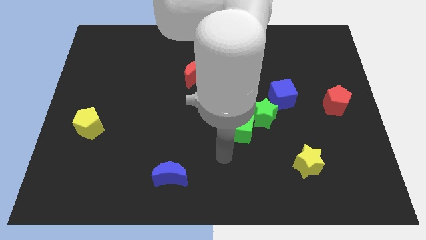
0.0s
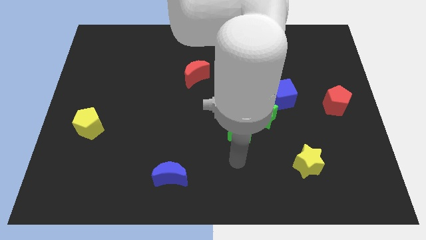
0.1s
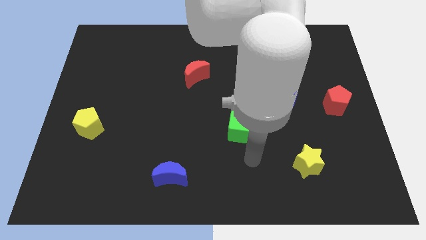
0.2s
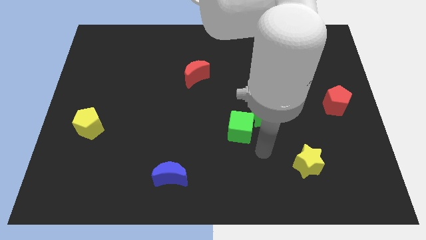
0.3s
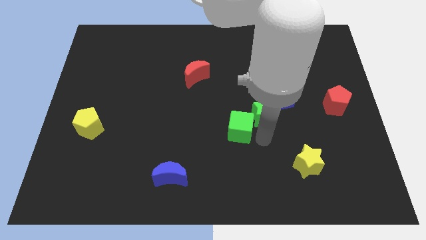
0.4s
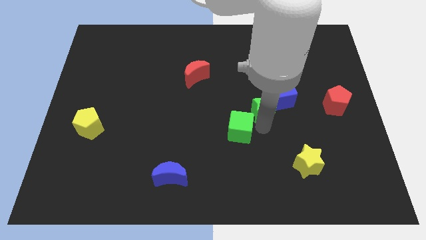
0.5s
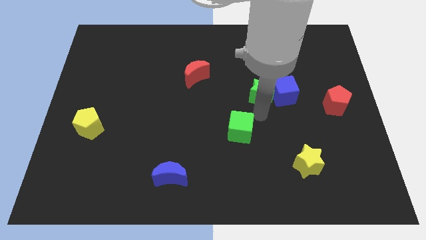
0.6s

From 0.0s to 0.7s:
pull the green cube apart from the green star

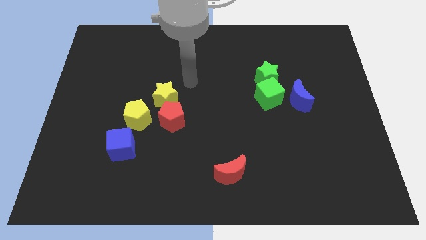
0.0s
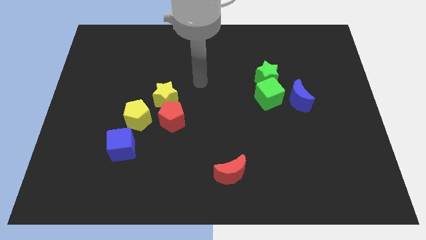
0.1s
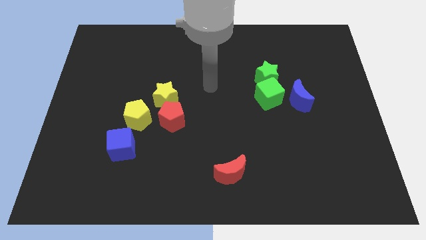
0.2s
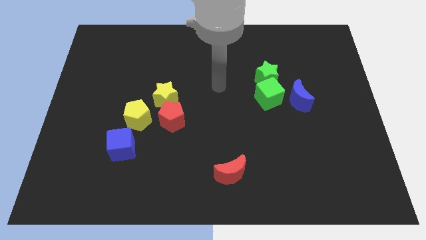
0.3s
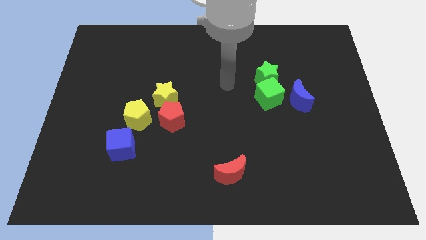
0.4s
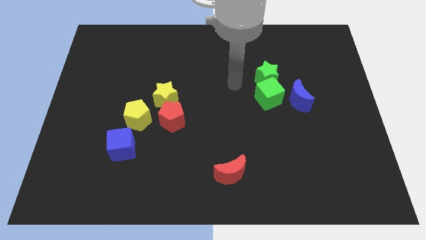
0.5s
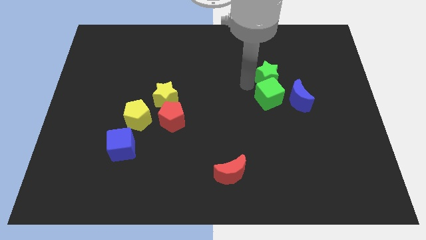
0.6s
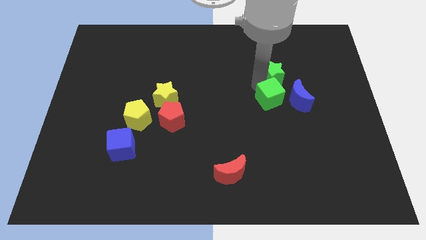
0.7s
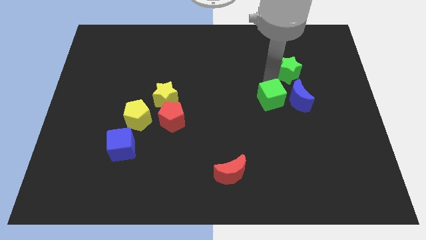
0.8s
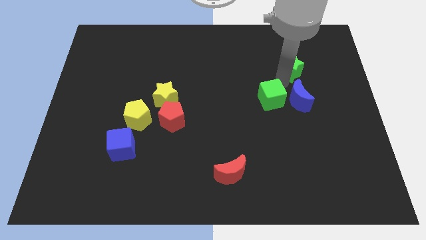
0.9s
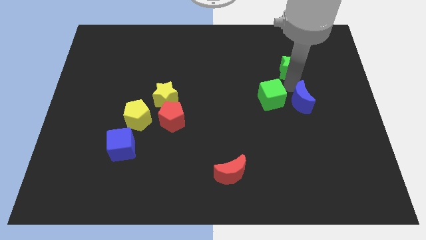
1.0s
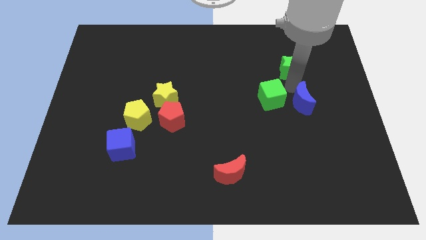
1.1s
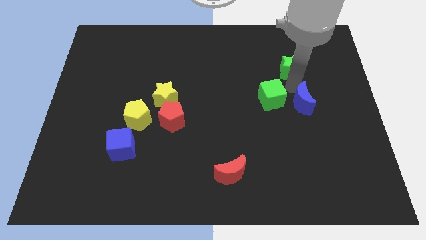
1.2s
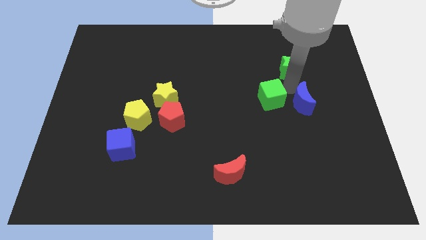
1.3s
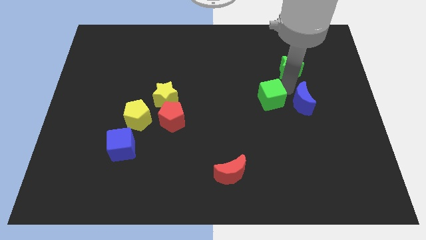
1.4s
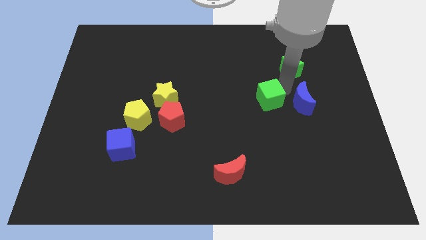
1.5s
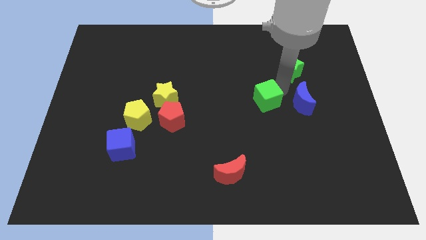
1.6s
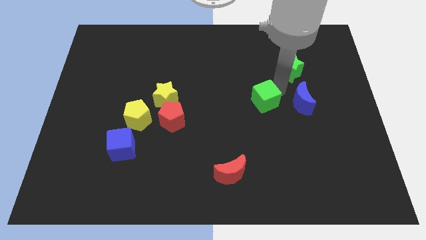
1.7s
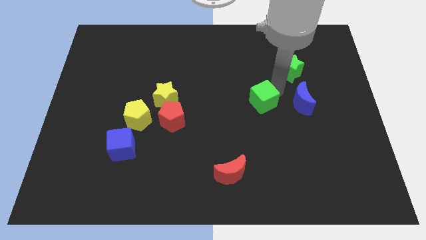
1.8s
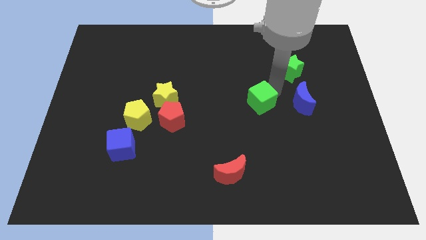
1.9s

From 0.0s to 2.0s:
pull the green cube apart from the green star and blue moon

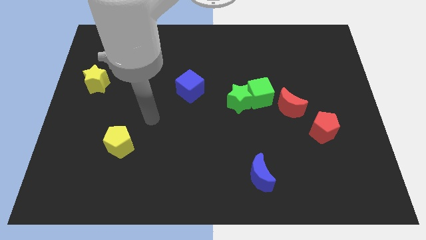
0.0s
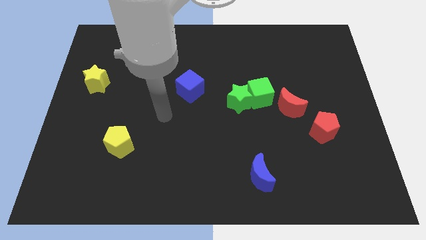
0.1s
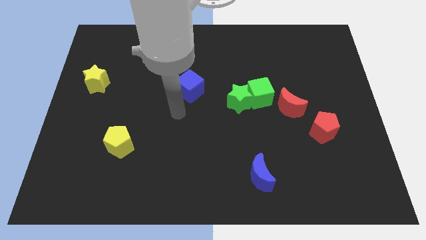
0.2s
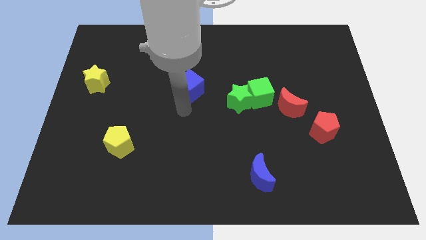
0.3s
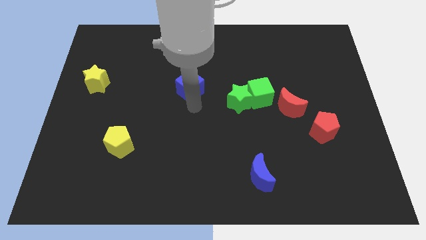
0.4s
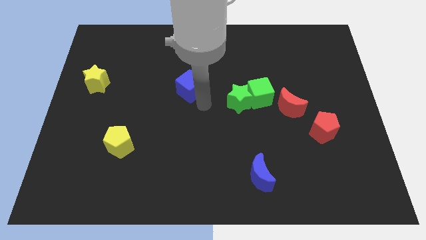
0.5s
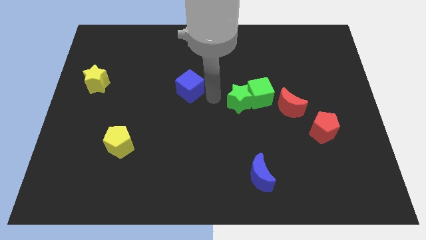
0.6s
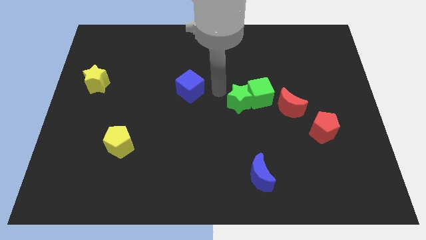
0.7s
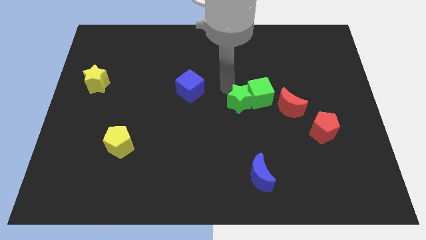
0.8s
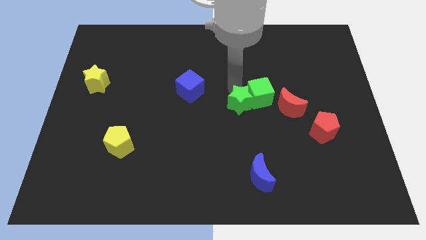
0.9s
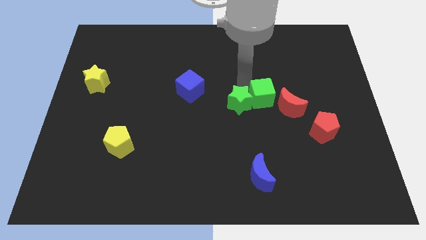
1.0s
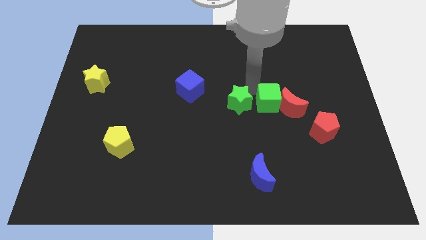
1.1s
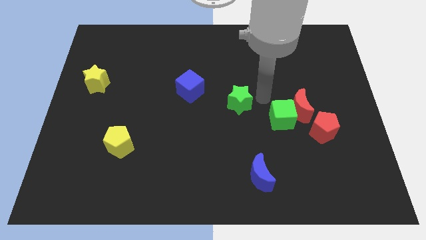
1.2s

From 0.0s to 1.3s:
pull the green star apart from the green cube

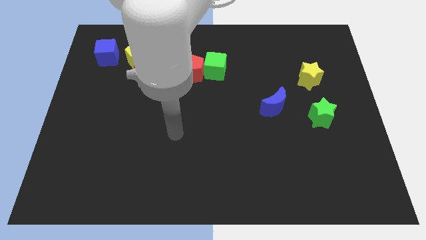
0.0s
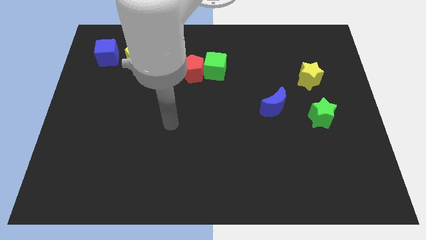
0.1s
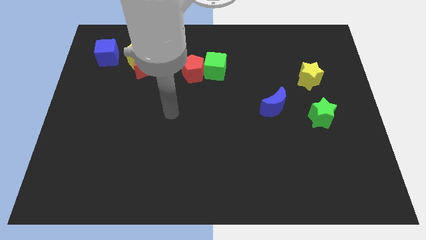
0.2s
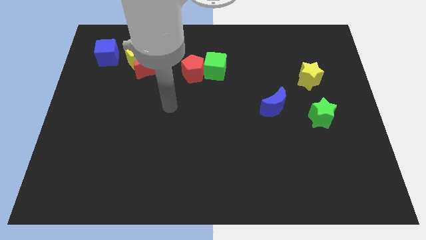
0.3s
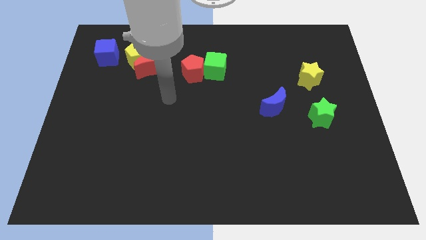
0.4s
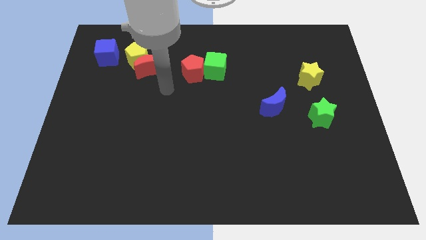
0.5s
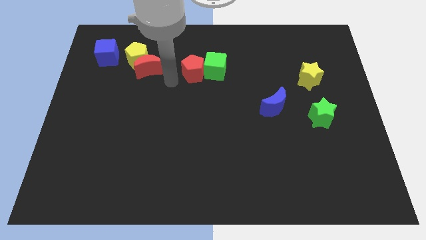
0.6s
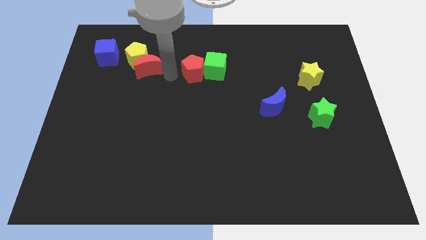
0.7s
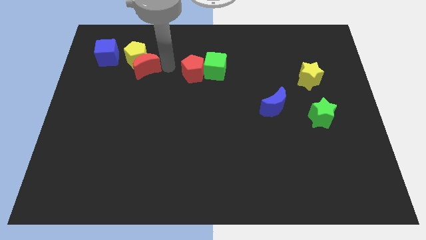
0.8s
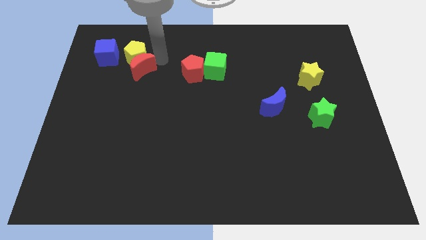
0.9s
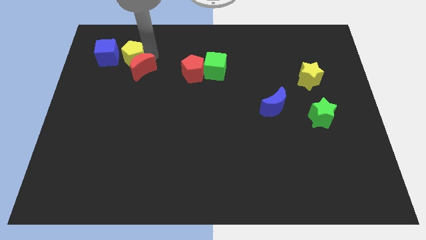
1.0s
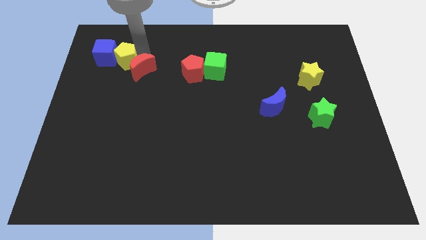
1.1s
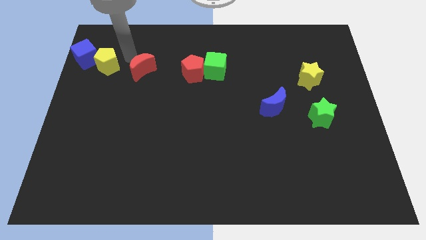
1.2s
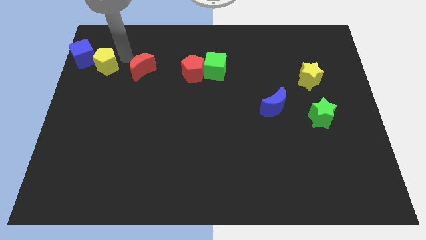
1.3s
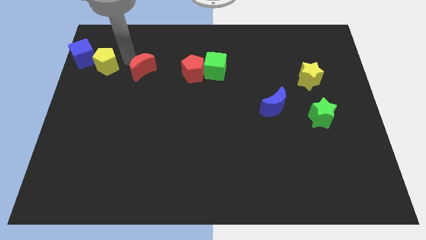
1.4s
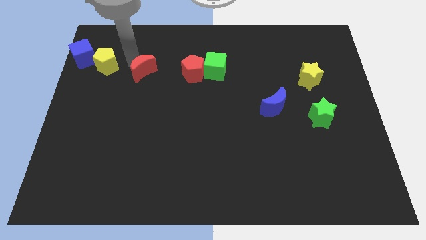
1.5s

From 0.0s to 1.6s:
move the red moon away from the yellow pentagon

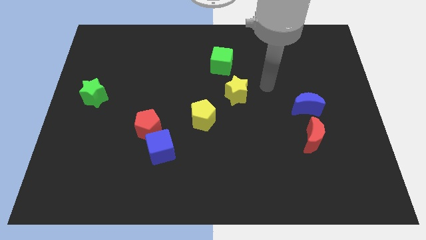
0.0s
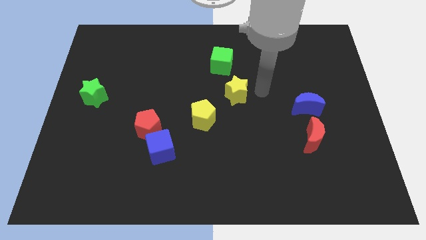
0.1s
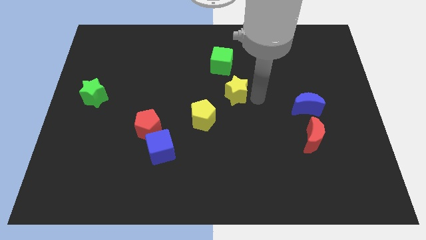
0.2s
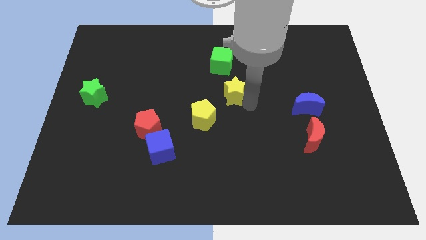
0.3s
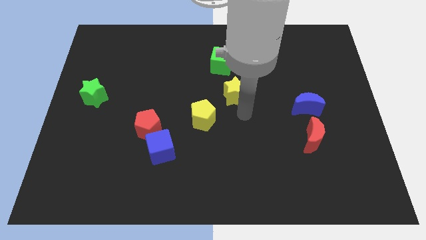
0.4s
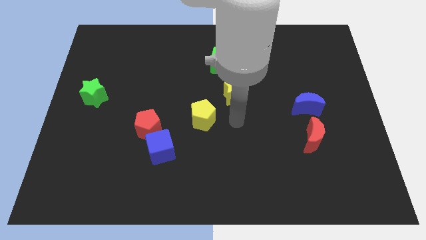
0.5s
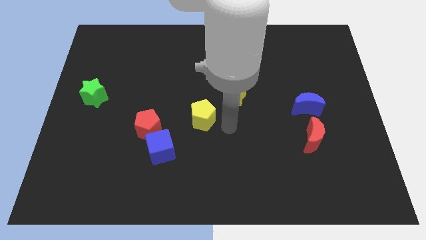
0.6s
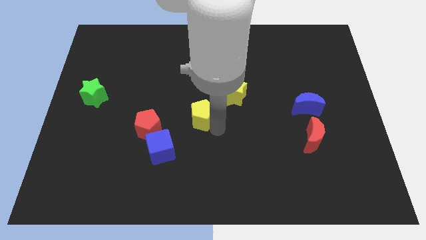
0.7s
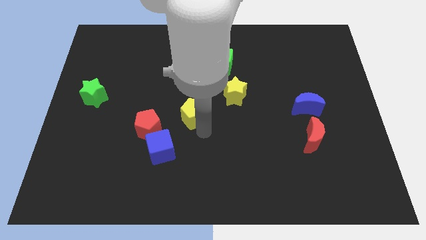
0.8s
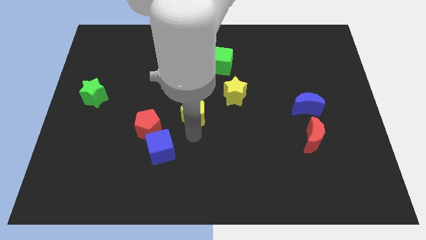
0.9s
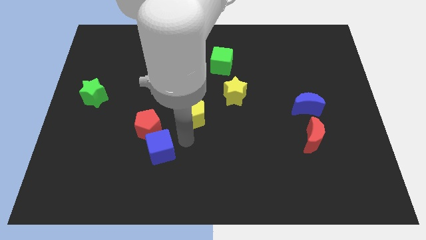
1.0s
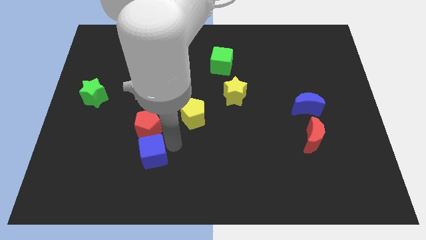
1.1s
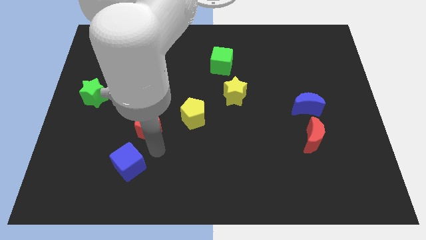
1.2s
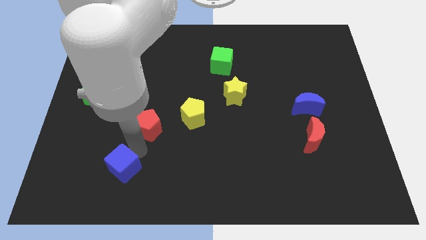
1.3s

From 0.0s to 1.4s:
move the red pentagon away from the blue cube

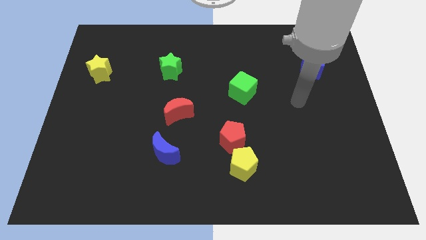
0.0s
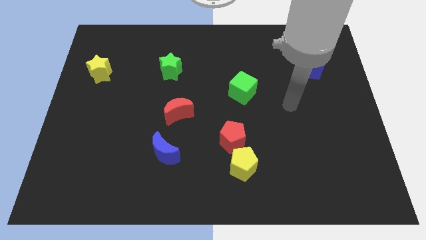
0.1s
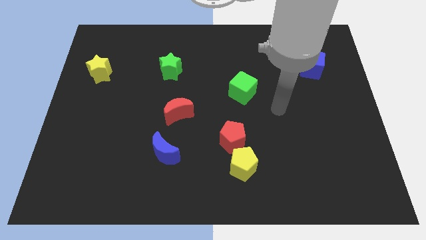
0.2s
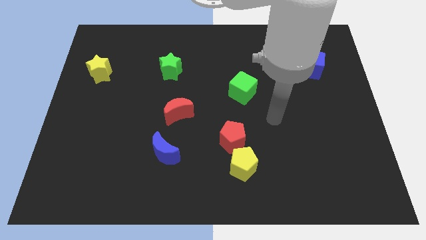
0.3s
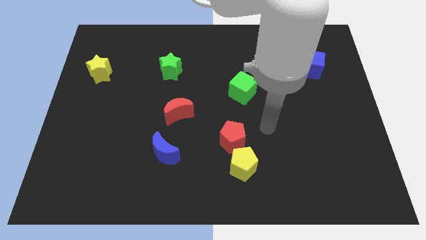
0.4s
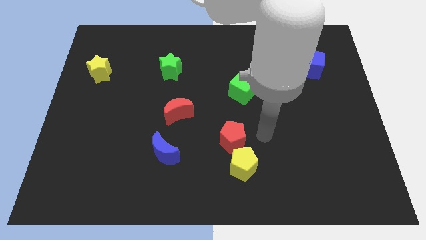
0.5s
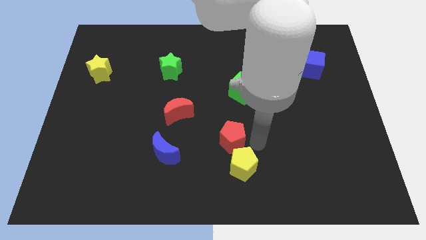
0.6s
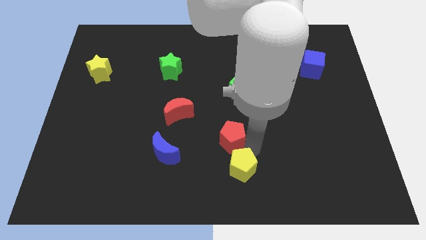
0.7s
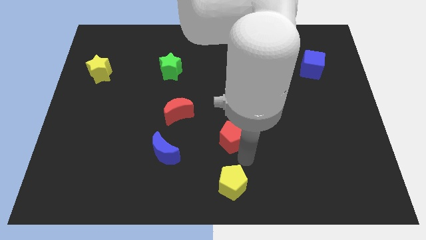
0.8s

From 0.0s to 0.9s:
separate the red pentagon from the yellow pentagon

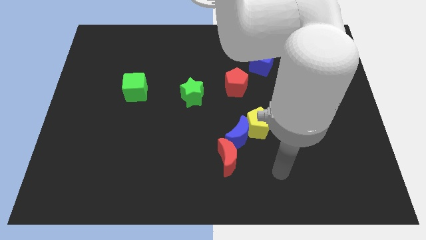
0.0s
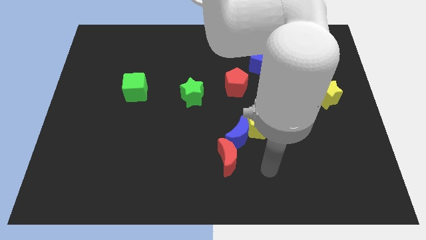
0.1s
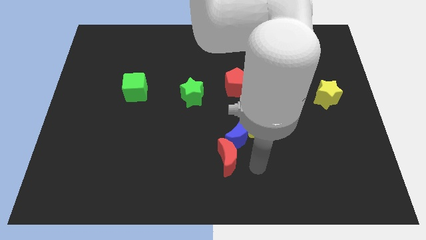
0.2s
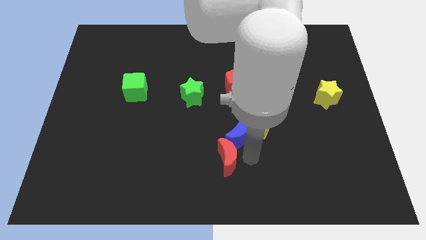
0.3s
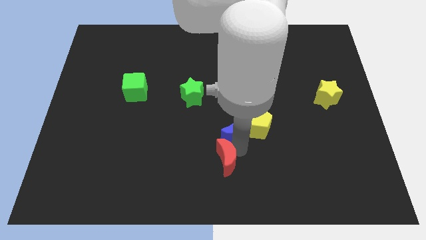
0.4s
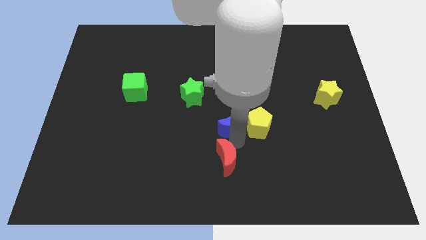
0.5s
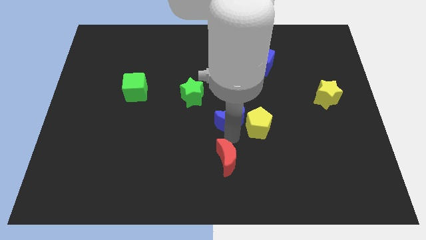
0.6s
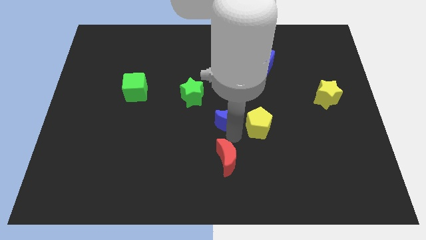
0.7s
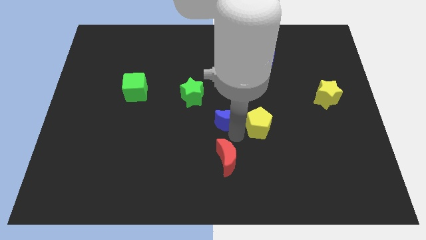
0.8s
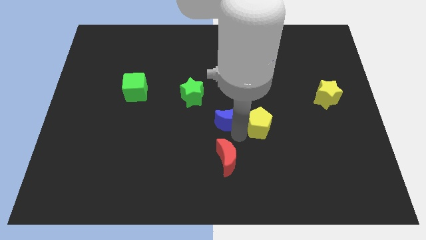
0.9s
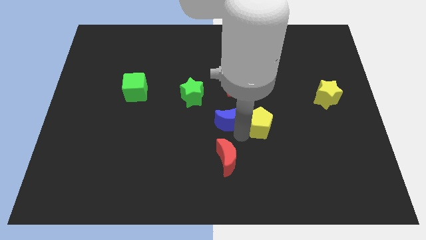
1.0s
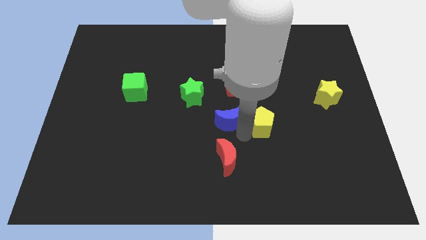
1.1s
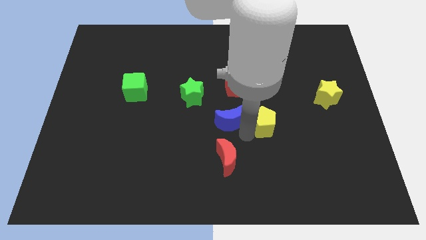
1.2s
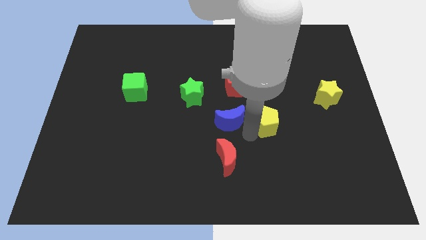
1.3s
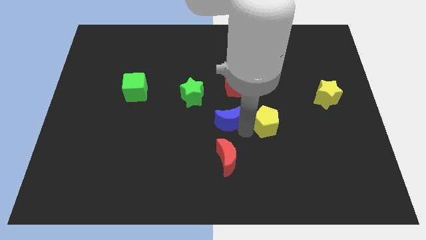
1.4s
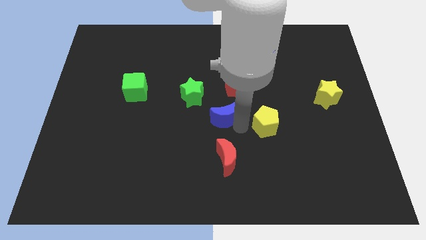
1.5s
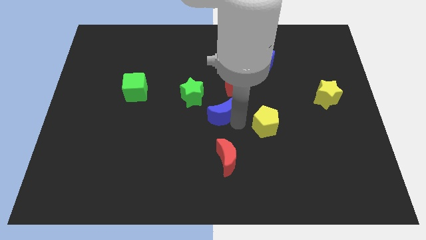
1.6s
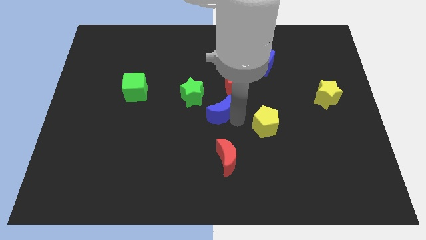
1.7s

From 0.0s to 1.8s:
separate the yellow pentagon from the blue moon
